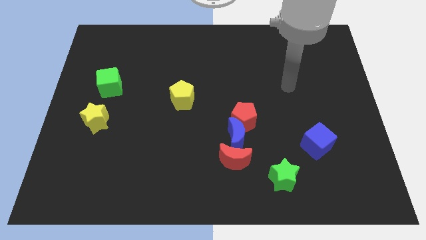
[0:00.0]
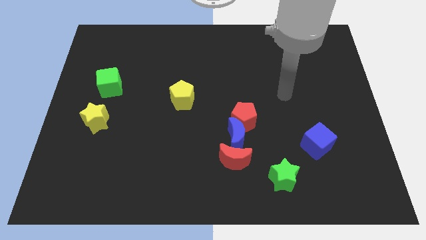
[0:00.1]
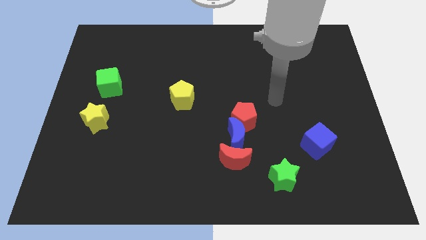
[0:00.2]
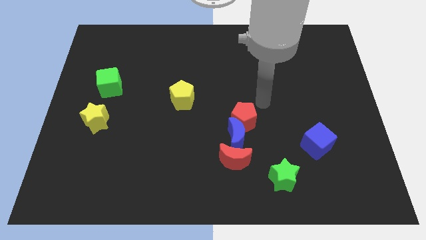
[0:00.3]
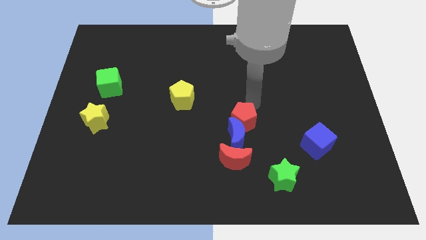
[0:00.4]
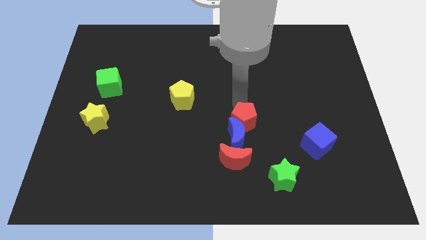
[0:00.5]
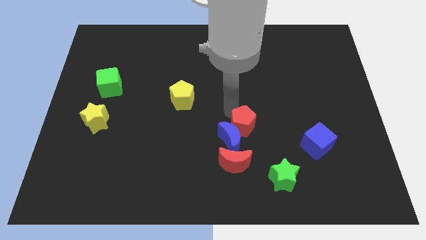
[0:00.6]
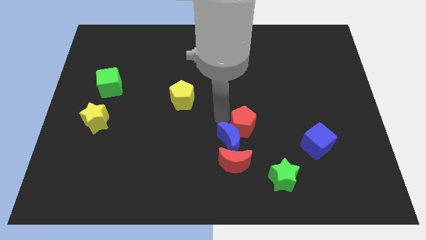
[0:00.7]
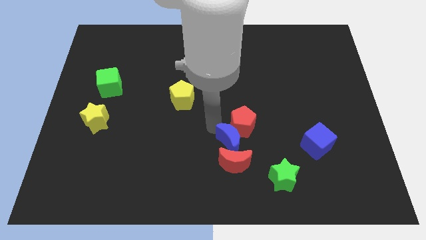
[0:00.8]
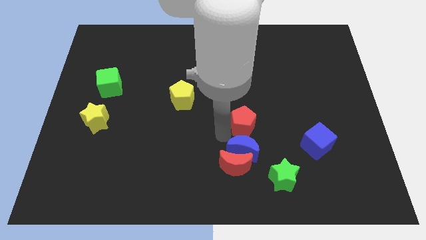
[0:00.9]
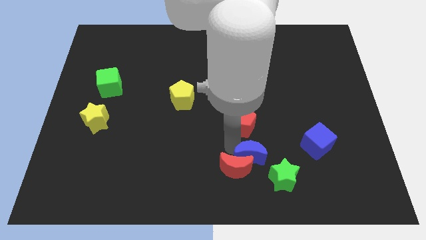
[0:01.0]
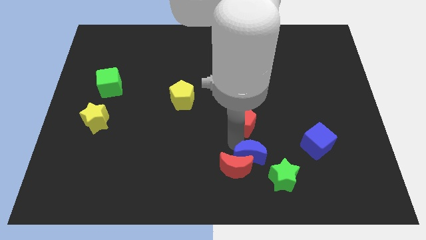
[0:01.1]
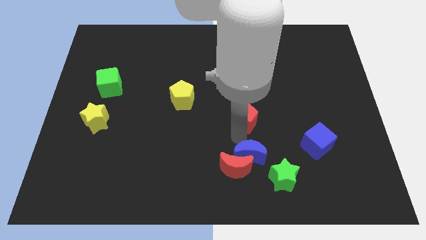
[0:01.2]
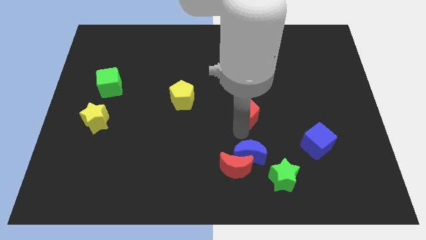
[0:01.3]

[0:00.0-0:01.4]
separate the red pentagon from the blue moon

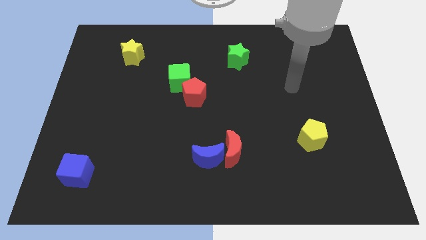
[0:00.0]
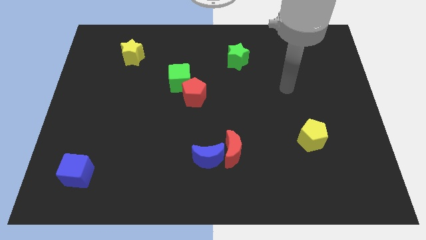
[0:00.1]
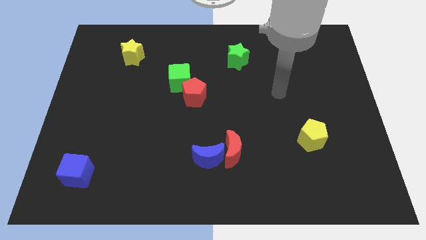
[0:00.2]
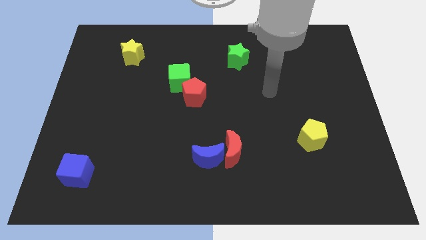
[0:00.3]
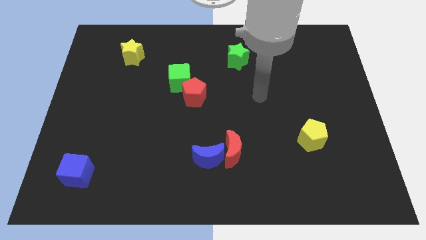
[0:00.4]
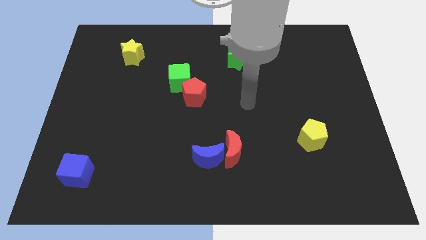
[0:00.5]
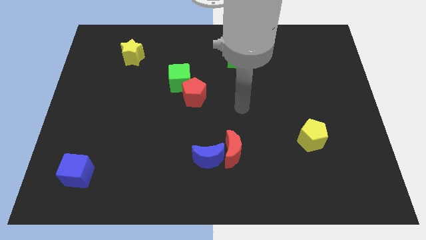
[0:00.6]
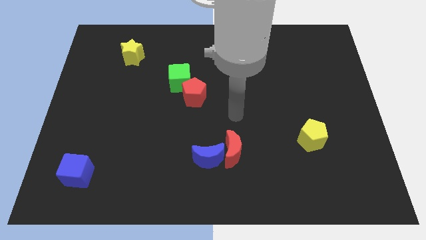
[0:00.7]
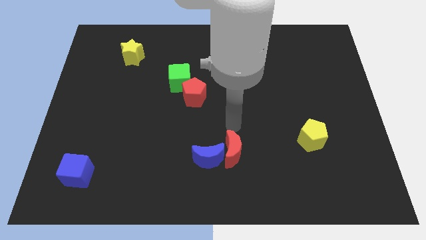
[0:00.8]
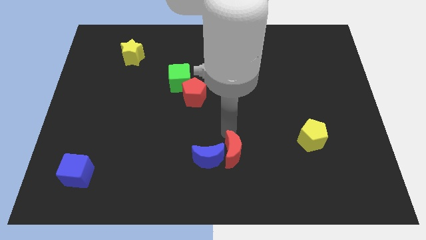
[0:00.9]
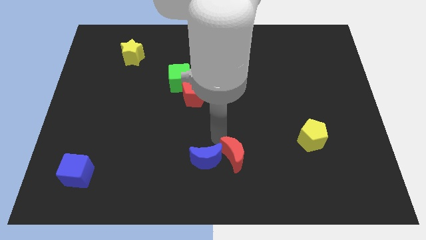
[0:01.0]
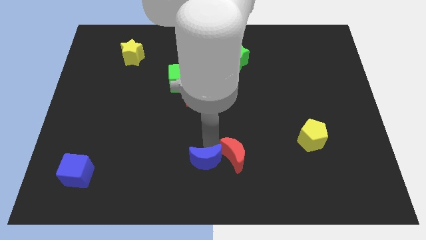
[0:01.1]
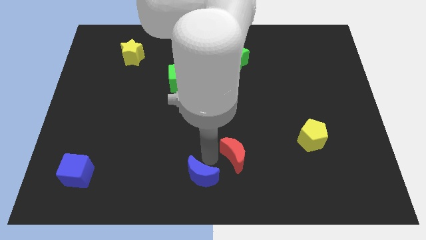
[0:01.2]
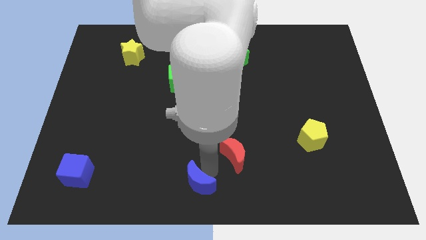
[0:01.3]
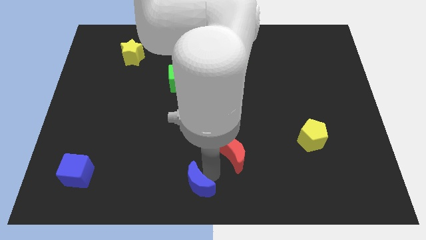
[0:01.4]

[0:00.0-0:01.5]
pull the red moon apart from the blue moon

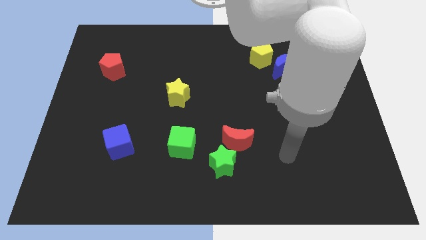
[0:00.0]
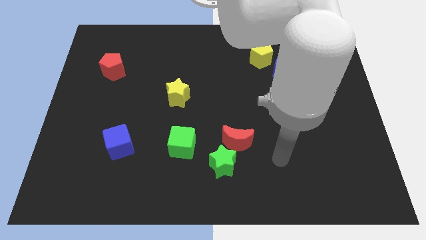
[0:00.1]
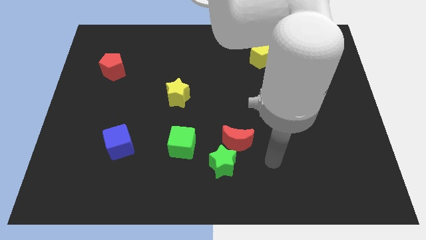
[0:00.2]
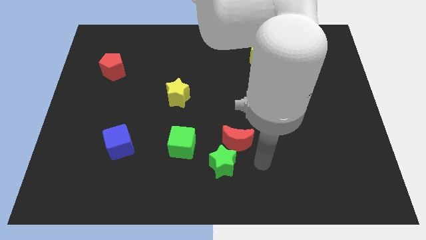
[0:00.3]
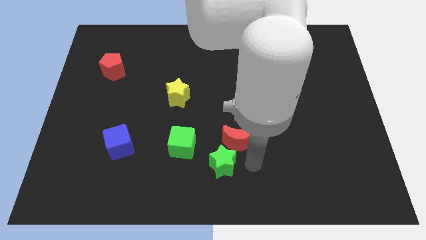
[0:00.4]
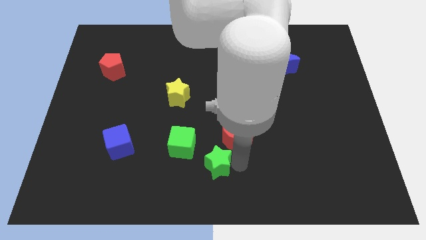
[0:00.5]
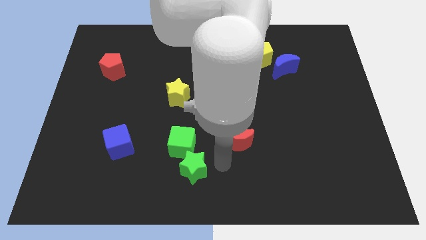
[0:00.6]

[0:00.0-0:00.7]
move the red moon away from the green star

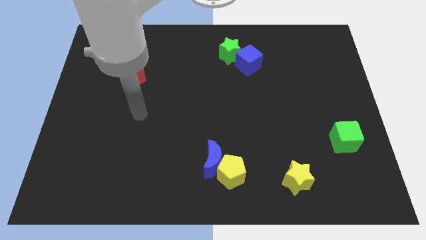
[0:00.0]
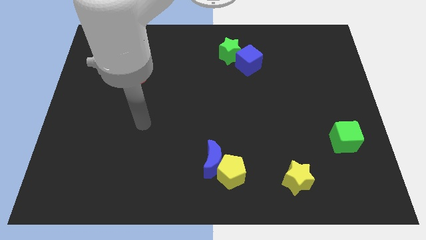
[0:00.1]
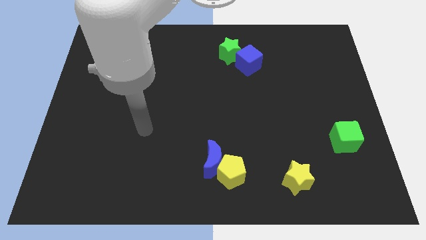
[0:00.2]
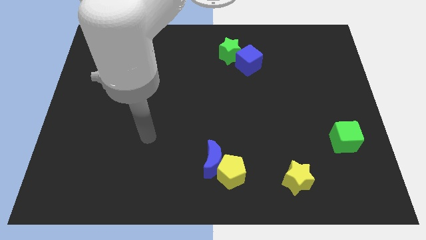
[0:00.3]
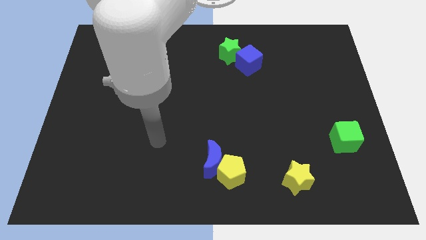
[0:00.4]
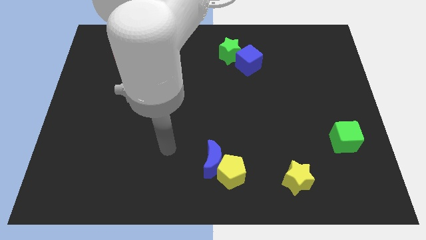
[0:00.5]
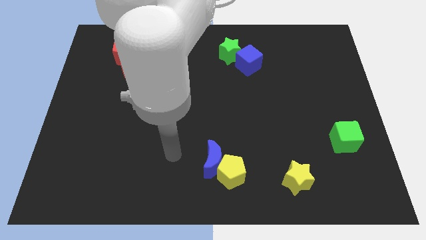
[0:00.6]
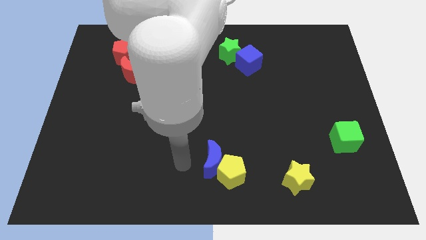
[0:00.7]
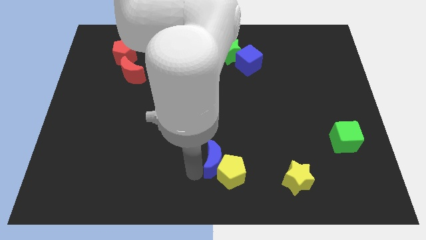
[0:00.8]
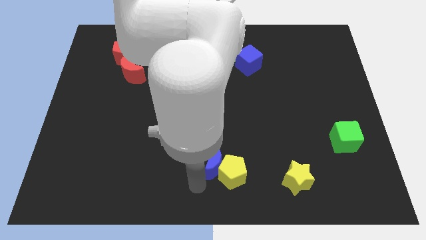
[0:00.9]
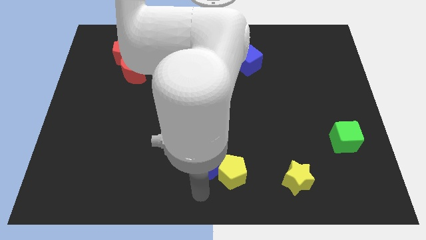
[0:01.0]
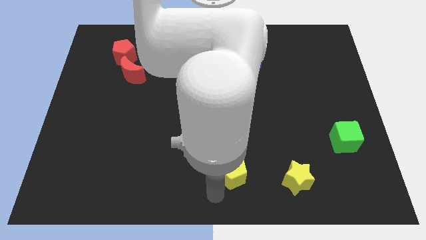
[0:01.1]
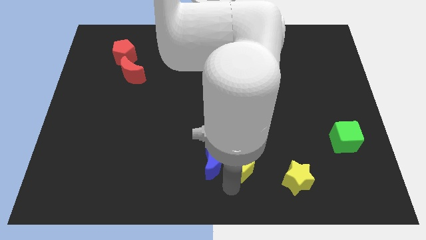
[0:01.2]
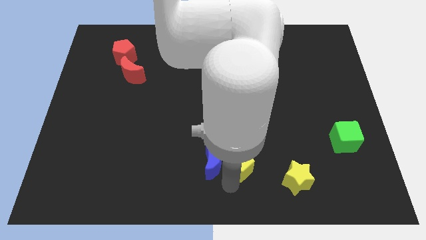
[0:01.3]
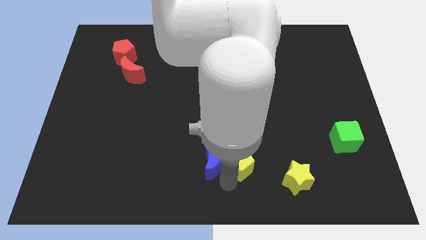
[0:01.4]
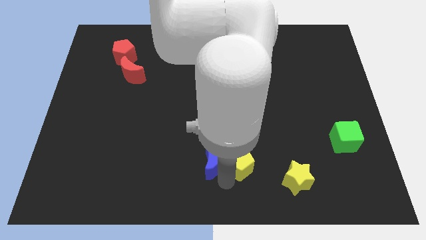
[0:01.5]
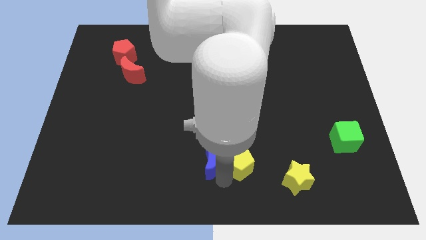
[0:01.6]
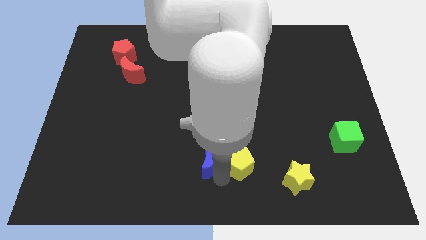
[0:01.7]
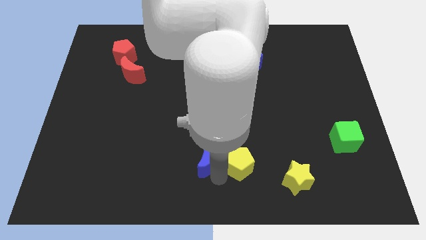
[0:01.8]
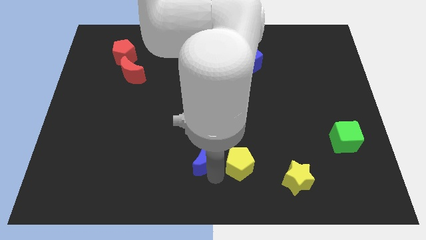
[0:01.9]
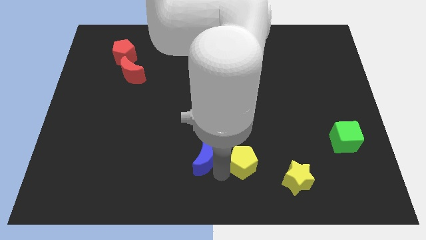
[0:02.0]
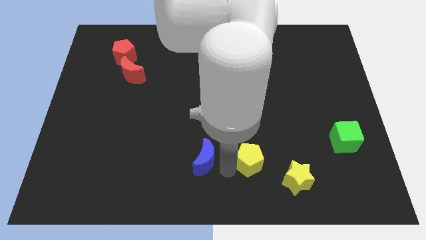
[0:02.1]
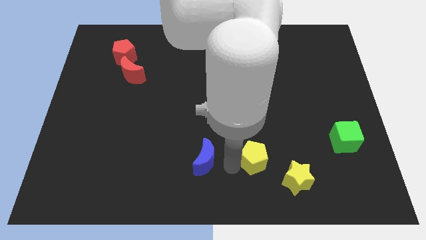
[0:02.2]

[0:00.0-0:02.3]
move the blue moon away from the yellow pentagon

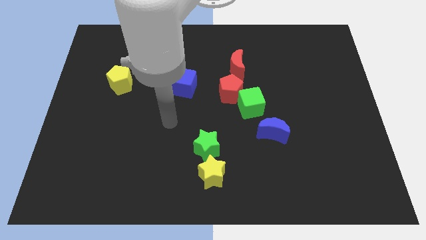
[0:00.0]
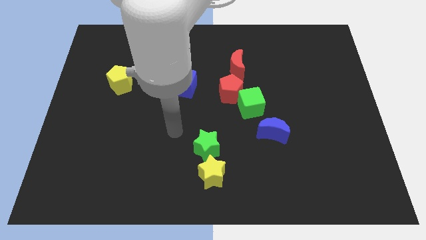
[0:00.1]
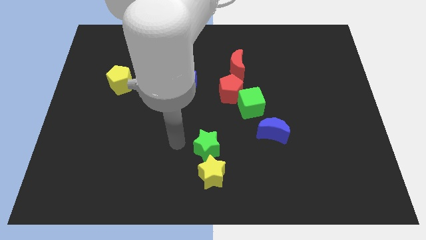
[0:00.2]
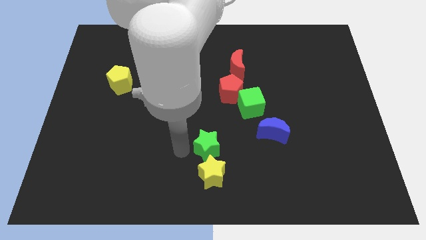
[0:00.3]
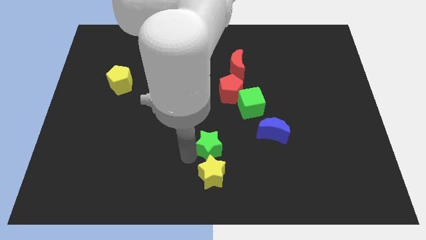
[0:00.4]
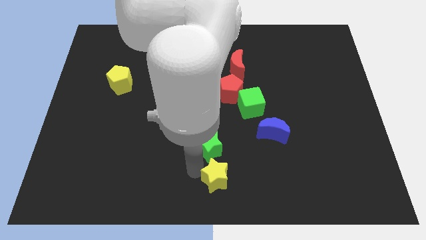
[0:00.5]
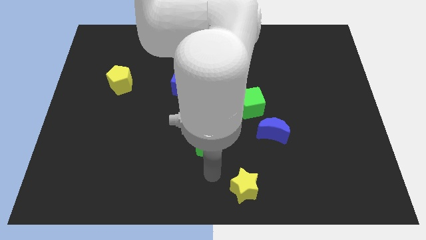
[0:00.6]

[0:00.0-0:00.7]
move the green star away from the yellow star

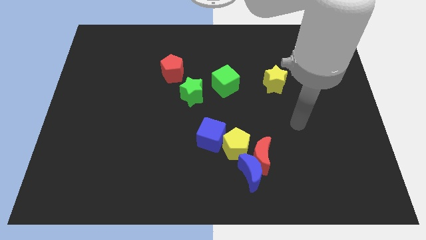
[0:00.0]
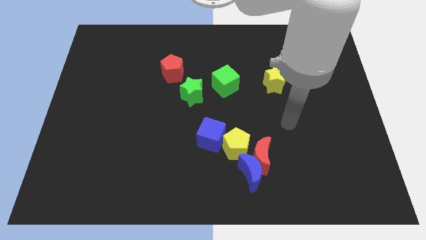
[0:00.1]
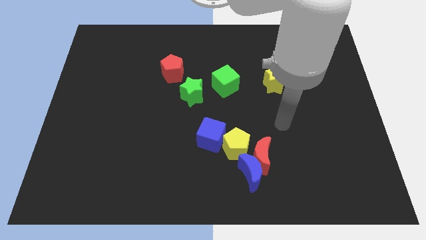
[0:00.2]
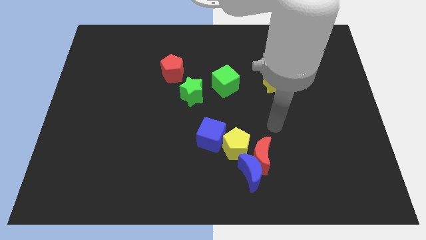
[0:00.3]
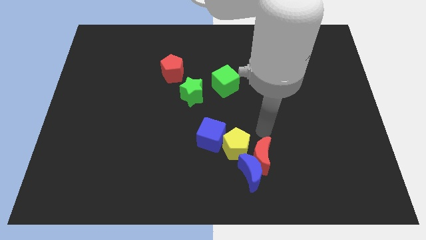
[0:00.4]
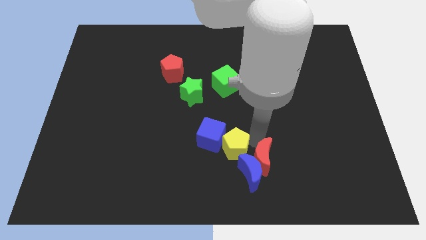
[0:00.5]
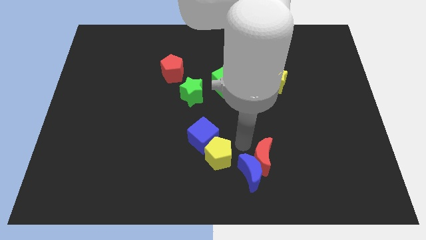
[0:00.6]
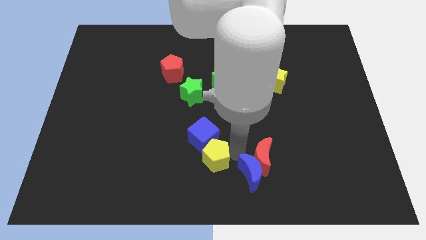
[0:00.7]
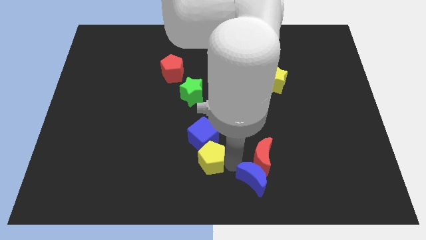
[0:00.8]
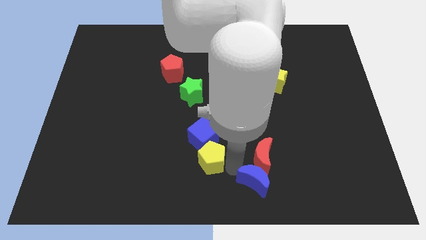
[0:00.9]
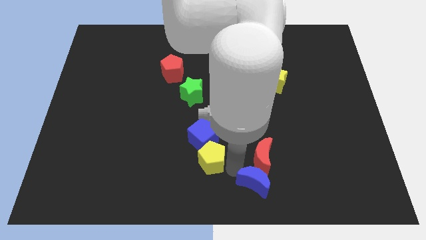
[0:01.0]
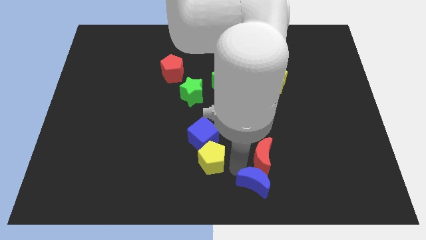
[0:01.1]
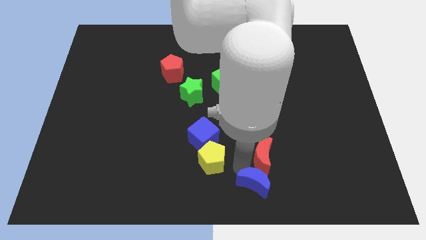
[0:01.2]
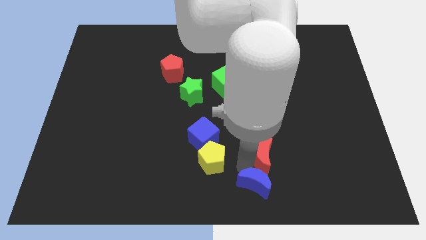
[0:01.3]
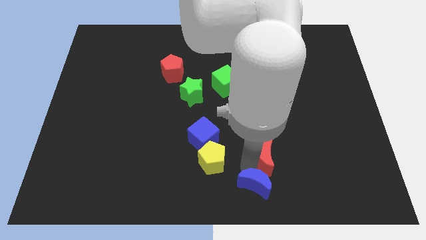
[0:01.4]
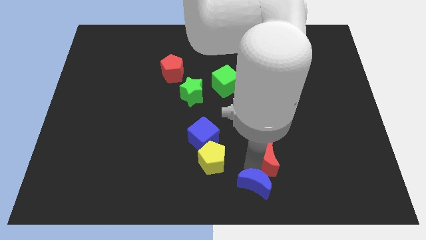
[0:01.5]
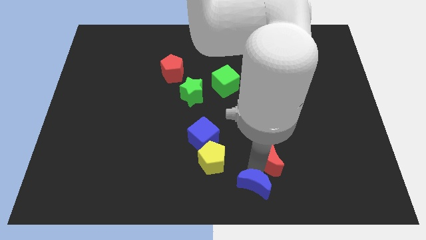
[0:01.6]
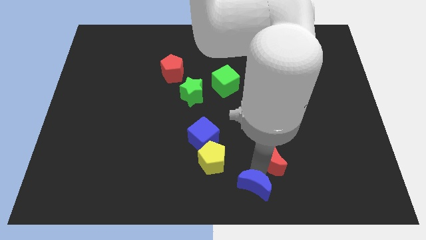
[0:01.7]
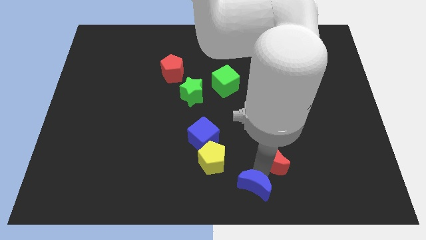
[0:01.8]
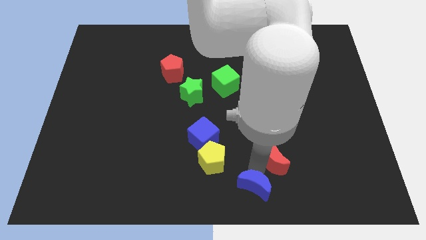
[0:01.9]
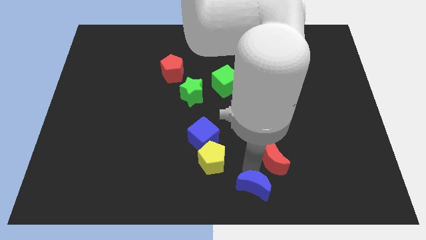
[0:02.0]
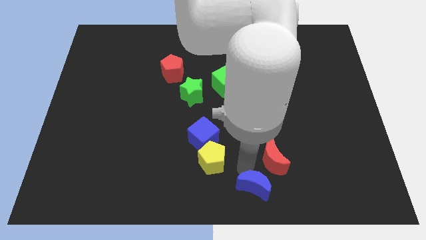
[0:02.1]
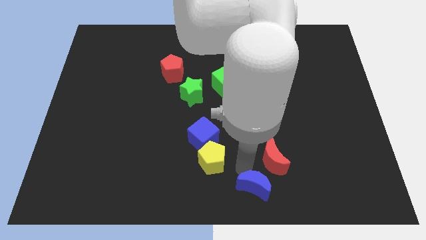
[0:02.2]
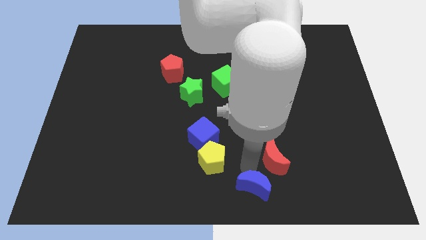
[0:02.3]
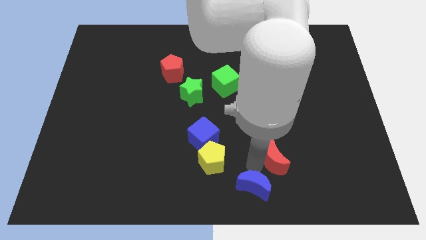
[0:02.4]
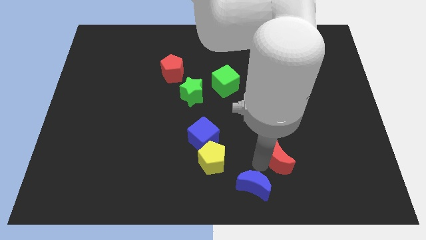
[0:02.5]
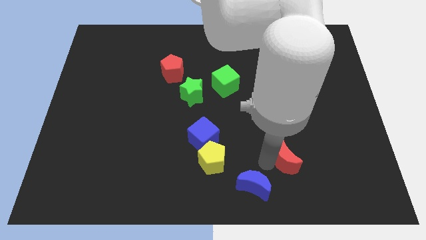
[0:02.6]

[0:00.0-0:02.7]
separate the red moon from the blue moon and yellow pentagon

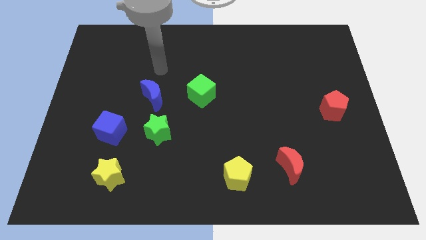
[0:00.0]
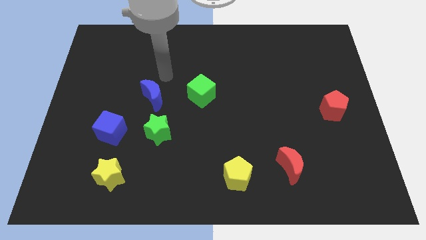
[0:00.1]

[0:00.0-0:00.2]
move the blue moon away from the green star
